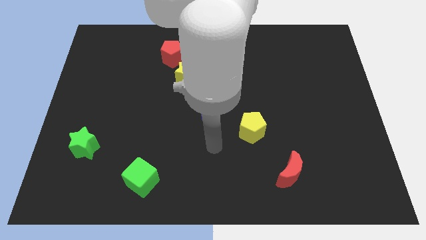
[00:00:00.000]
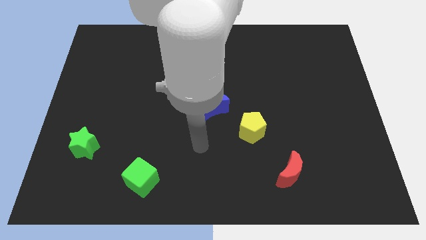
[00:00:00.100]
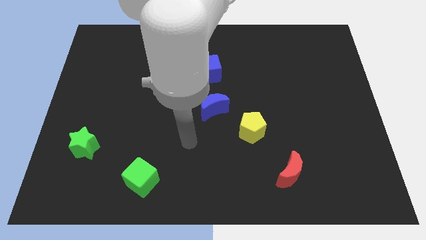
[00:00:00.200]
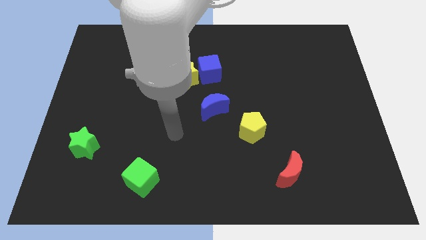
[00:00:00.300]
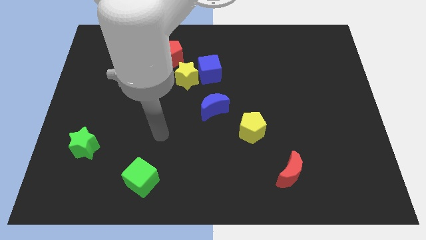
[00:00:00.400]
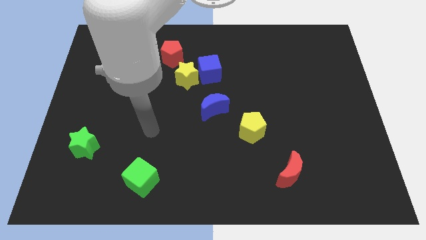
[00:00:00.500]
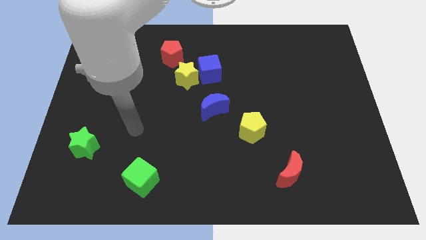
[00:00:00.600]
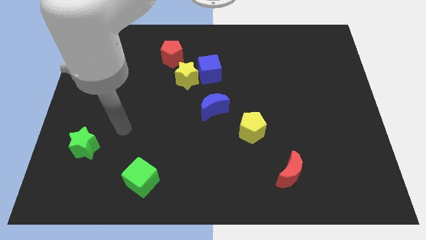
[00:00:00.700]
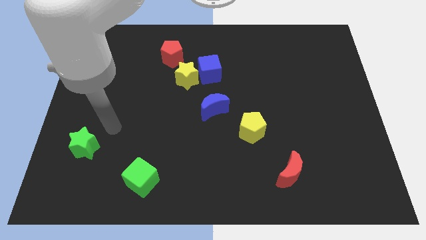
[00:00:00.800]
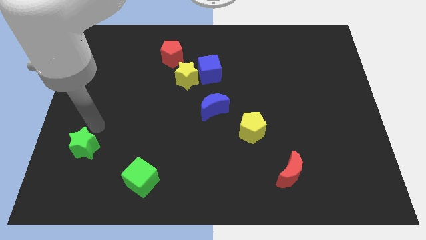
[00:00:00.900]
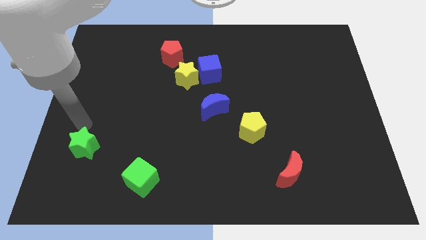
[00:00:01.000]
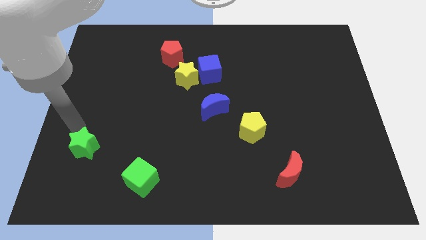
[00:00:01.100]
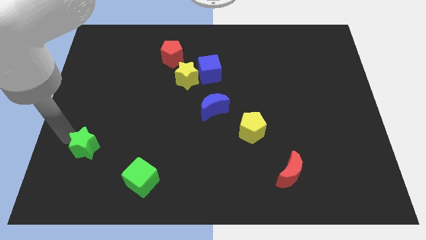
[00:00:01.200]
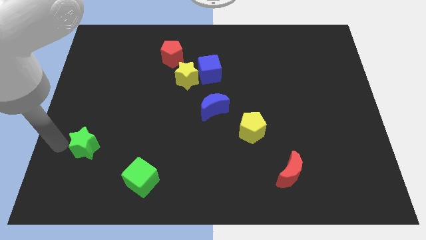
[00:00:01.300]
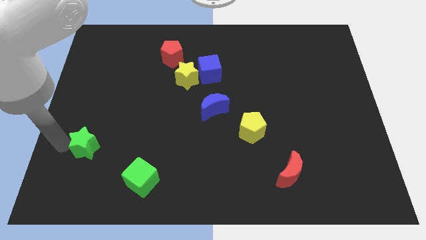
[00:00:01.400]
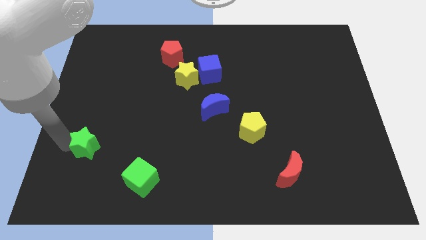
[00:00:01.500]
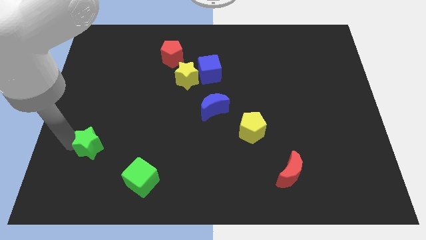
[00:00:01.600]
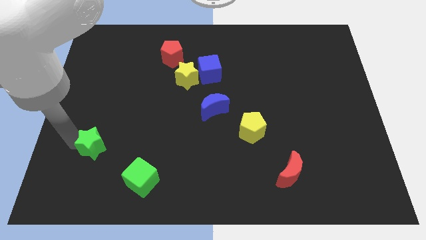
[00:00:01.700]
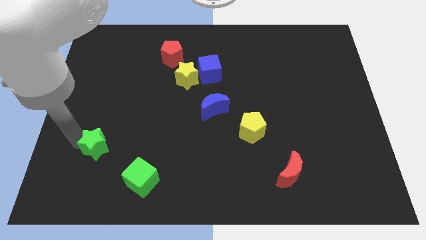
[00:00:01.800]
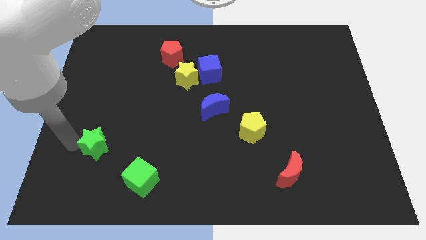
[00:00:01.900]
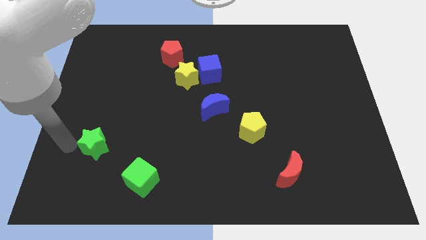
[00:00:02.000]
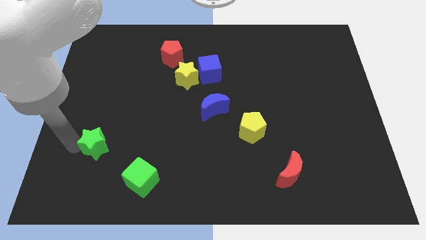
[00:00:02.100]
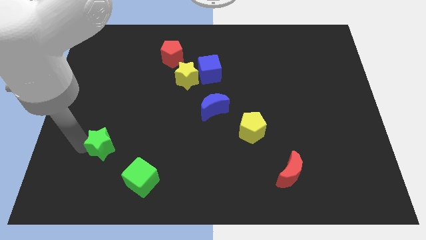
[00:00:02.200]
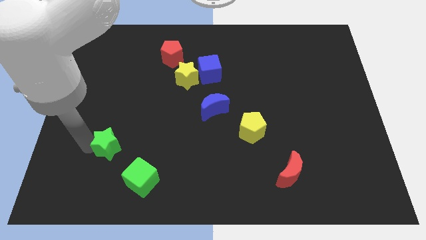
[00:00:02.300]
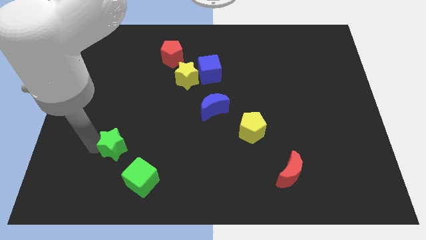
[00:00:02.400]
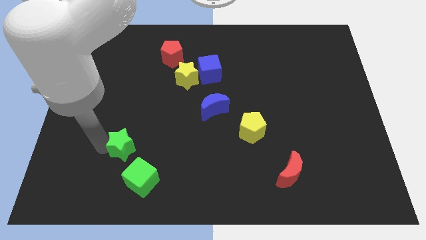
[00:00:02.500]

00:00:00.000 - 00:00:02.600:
push the green star right a bit

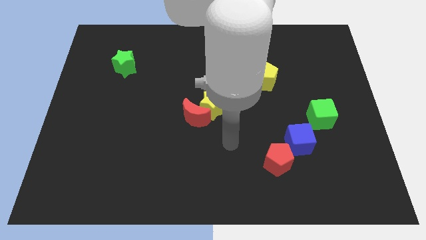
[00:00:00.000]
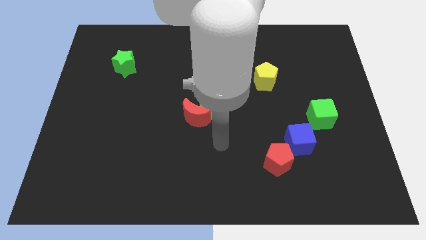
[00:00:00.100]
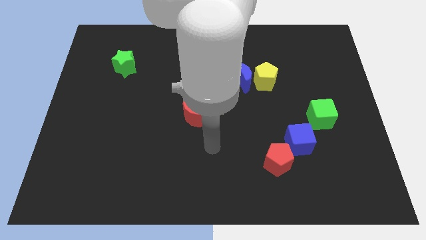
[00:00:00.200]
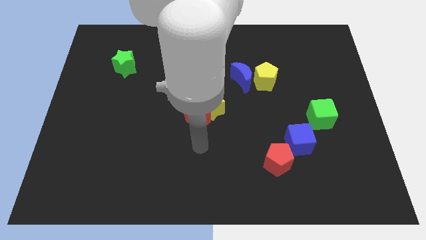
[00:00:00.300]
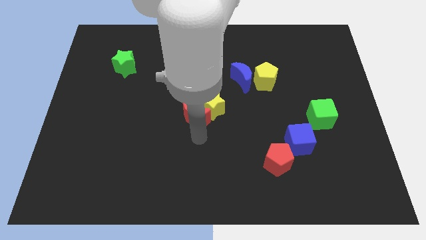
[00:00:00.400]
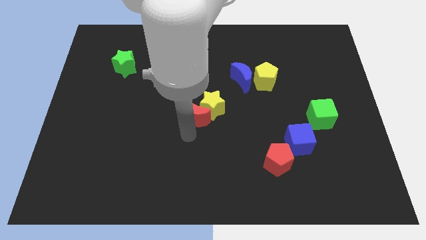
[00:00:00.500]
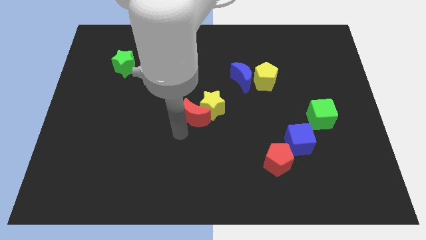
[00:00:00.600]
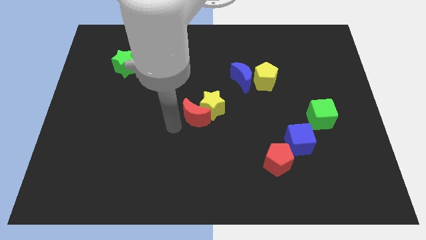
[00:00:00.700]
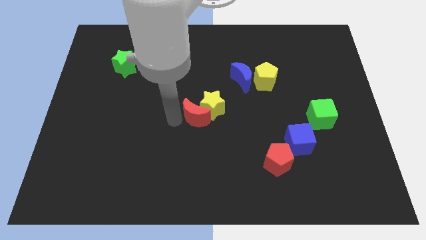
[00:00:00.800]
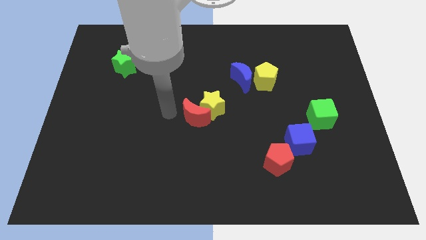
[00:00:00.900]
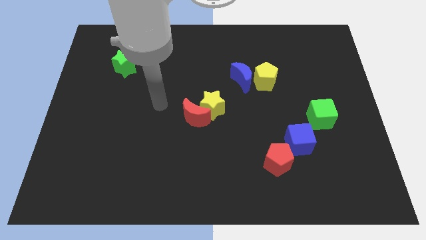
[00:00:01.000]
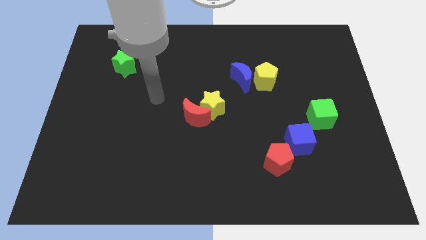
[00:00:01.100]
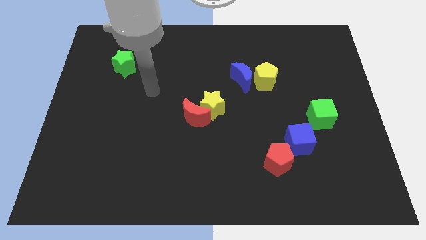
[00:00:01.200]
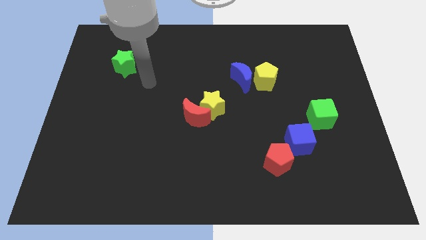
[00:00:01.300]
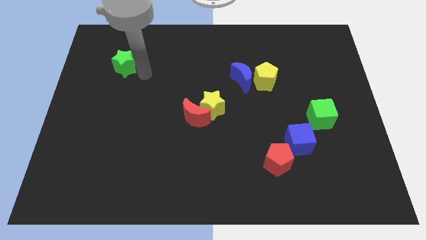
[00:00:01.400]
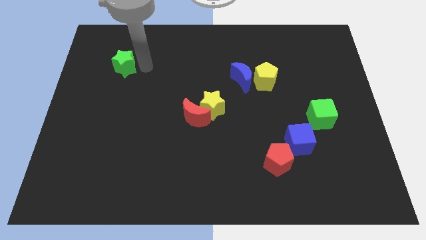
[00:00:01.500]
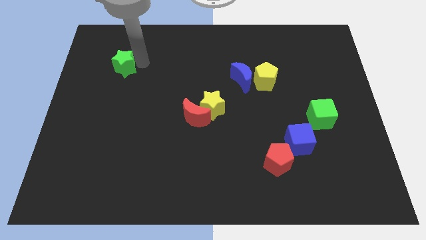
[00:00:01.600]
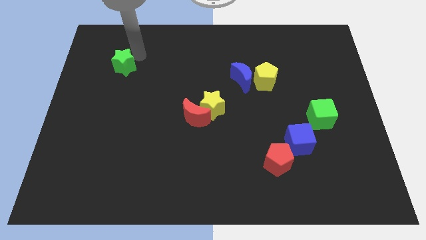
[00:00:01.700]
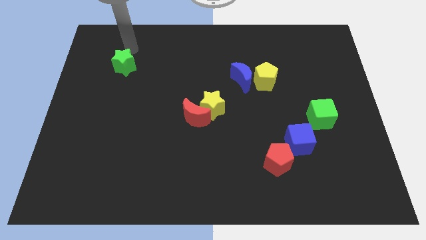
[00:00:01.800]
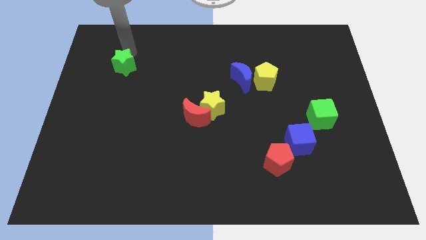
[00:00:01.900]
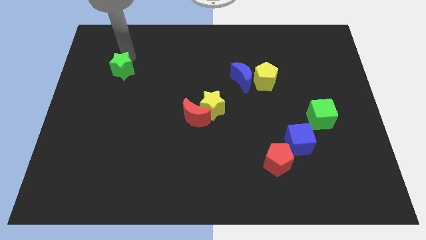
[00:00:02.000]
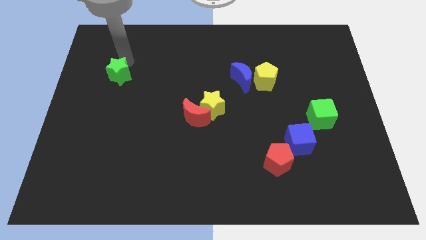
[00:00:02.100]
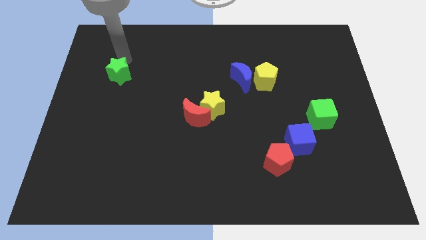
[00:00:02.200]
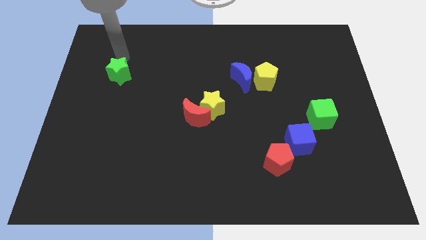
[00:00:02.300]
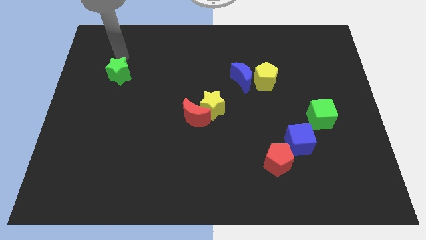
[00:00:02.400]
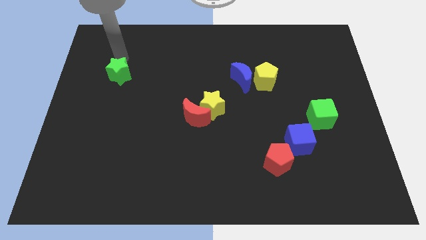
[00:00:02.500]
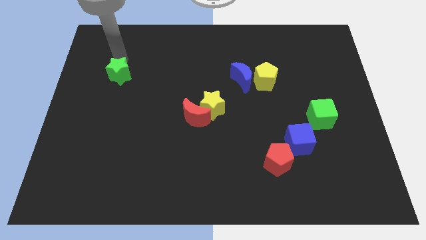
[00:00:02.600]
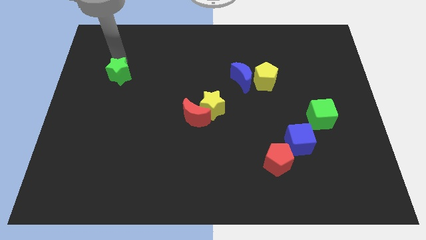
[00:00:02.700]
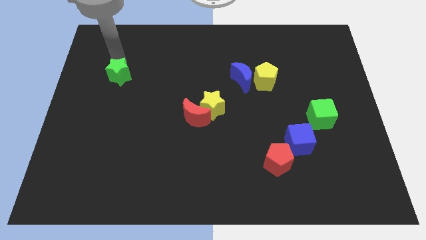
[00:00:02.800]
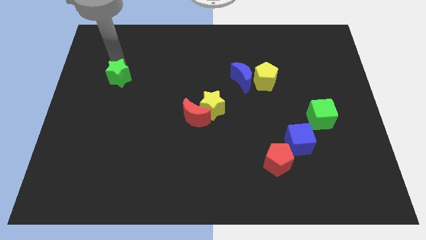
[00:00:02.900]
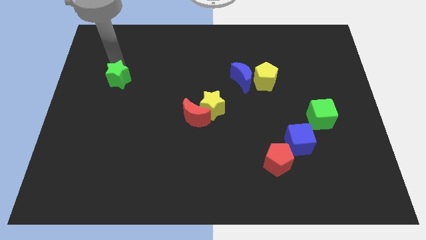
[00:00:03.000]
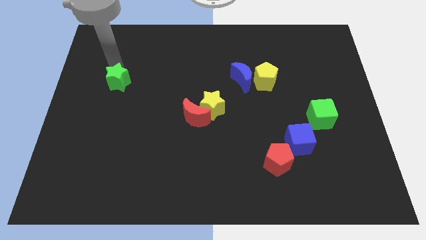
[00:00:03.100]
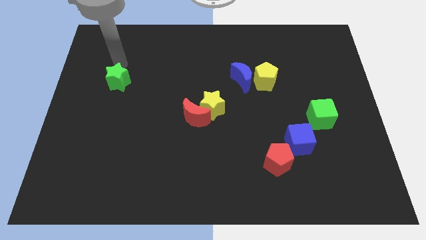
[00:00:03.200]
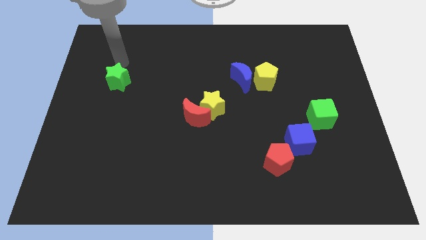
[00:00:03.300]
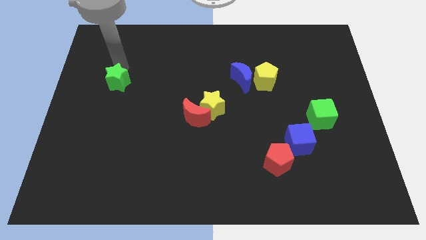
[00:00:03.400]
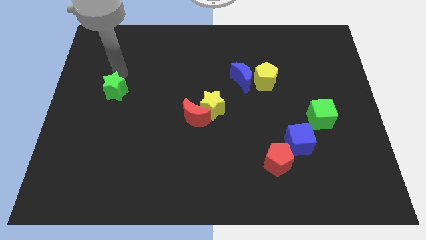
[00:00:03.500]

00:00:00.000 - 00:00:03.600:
push the green star slightly downwards

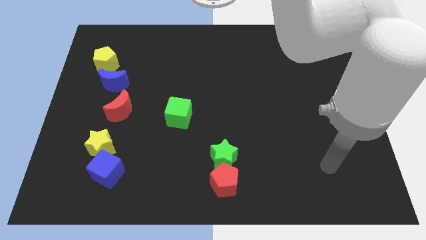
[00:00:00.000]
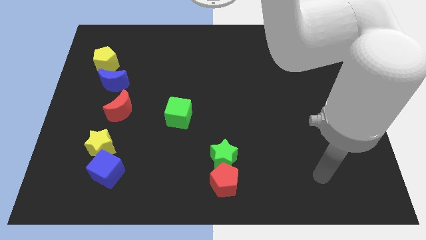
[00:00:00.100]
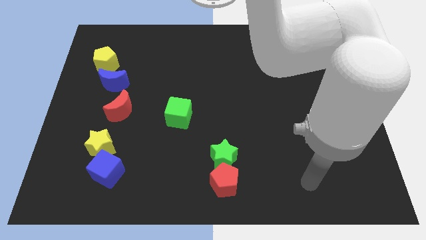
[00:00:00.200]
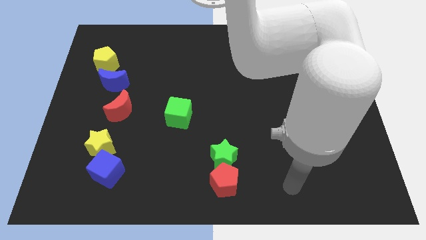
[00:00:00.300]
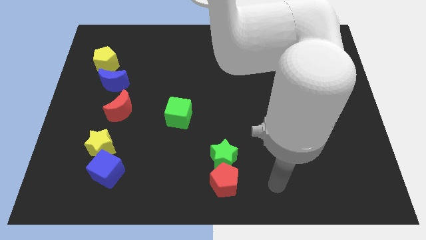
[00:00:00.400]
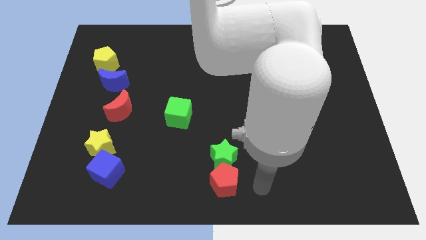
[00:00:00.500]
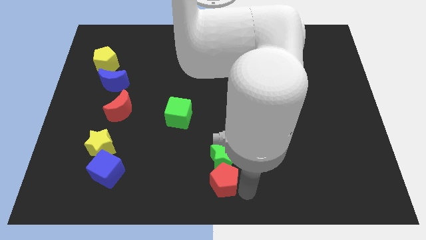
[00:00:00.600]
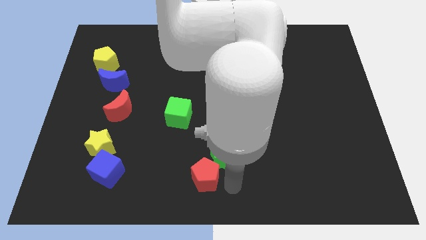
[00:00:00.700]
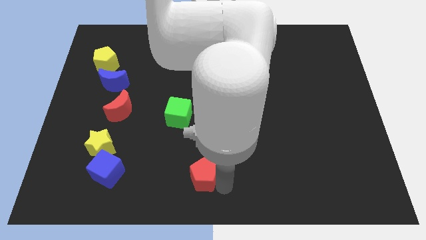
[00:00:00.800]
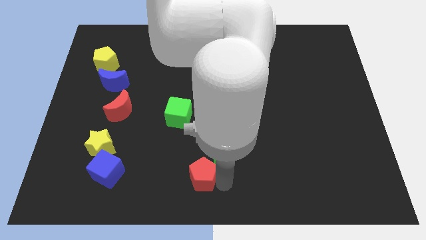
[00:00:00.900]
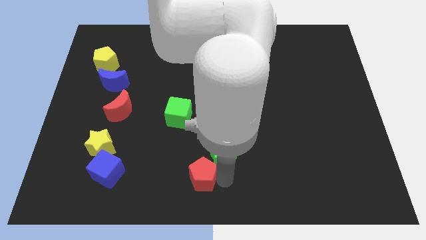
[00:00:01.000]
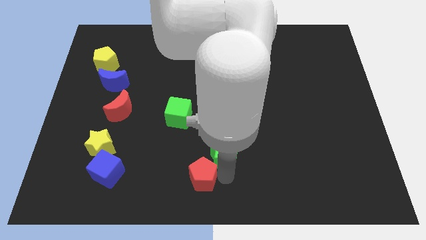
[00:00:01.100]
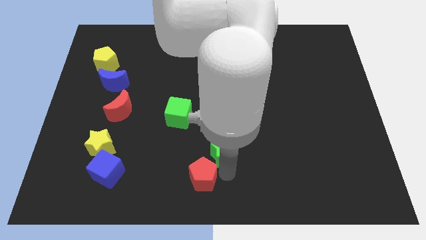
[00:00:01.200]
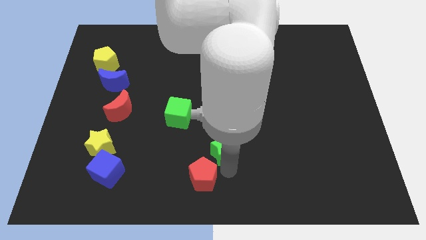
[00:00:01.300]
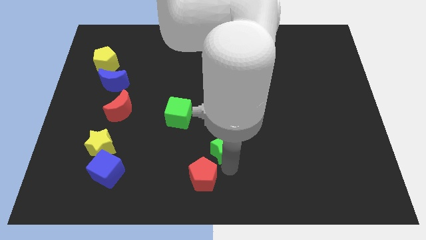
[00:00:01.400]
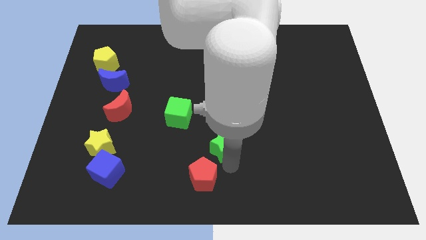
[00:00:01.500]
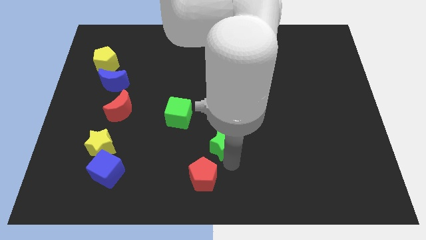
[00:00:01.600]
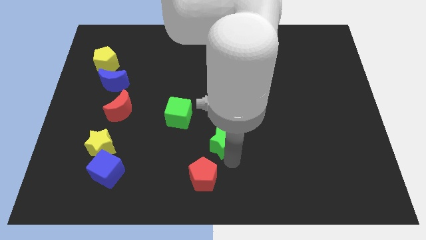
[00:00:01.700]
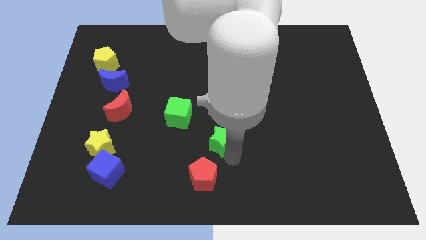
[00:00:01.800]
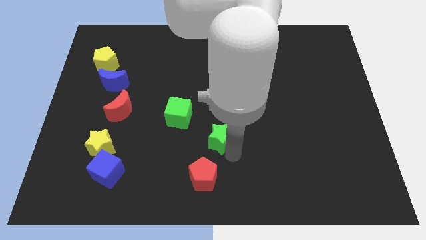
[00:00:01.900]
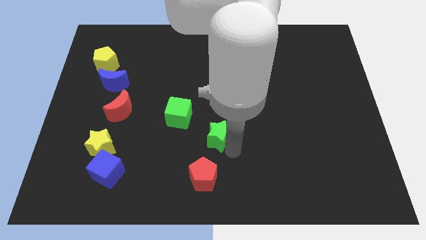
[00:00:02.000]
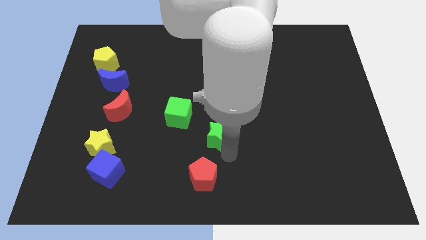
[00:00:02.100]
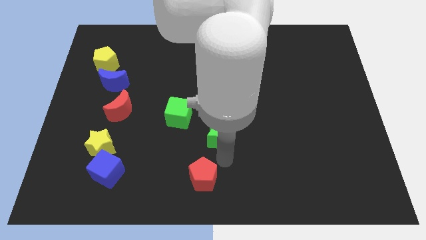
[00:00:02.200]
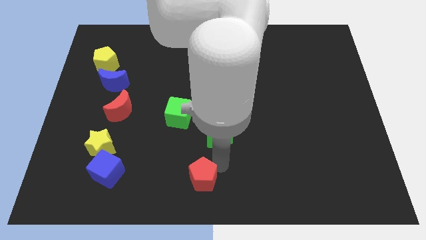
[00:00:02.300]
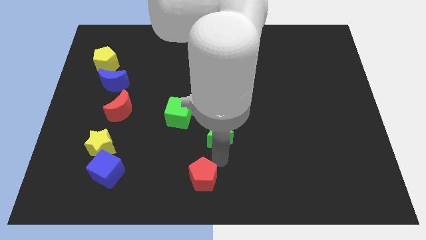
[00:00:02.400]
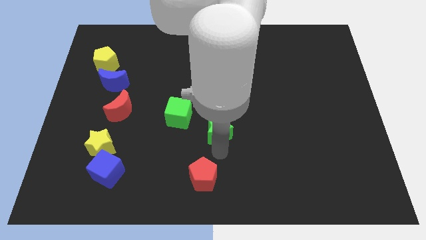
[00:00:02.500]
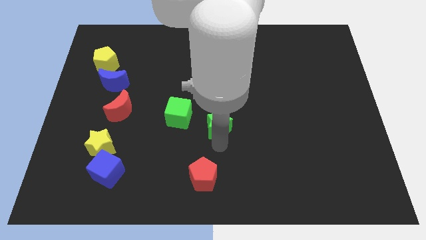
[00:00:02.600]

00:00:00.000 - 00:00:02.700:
move the green star upwards a little bit
